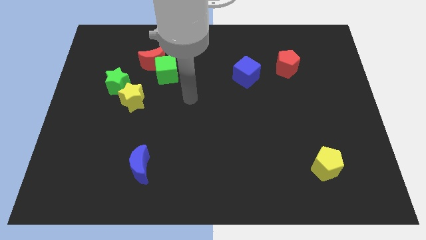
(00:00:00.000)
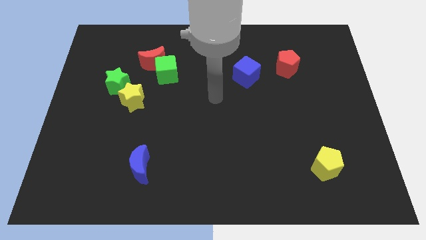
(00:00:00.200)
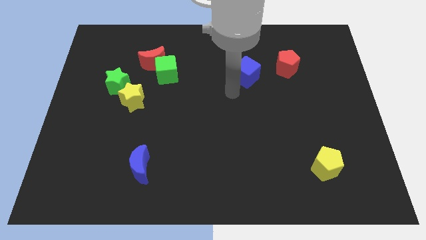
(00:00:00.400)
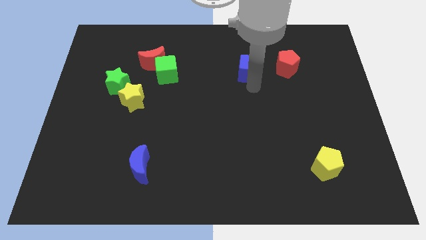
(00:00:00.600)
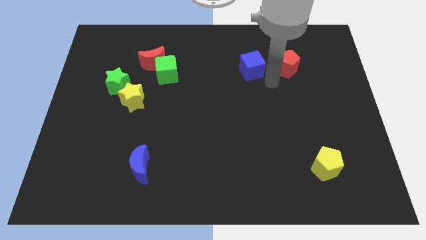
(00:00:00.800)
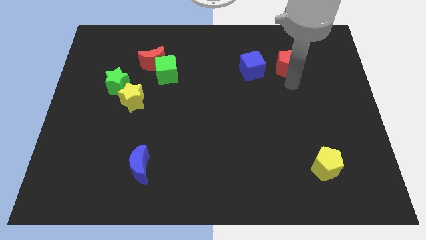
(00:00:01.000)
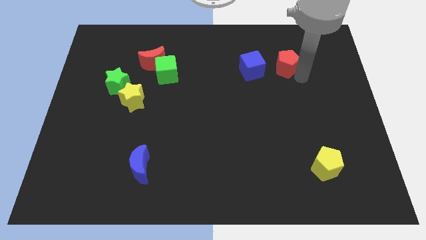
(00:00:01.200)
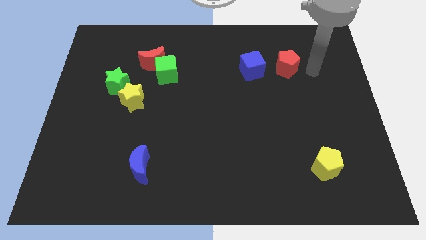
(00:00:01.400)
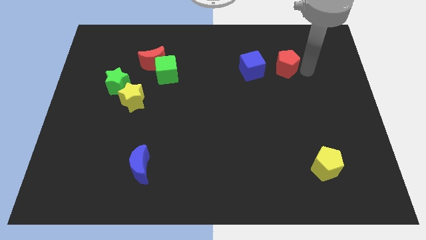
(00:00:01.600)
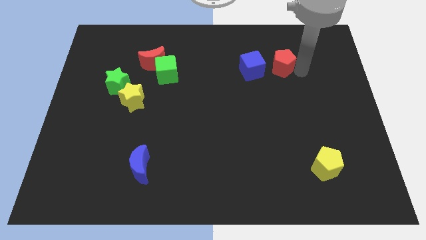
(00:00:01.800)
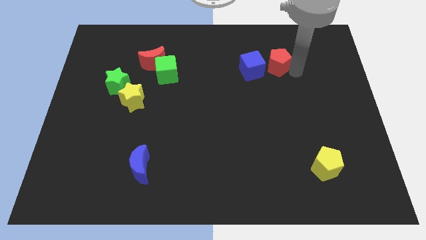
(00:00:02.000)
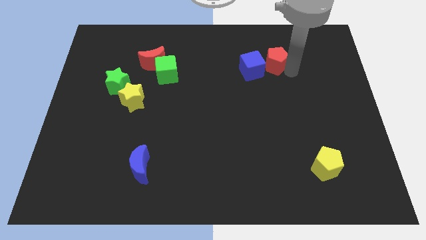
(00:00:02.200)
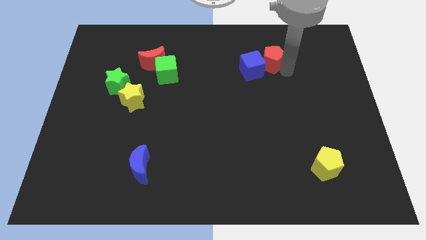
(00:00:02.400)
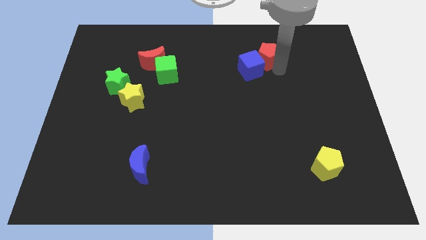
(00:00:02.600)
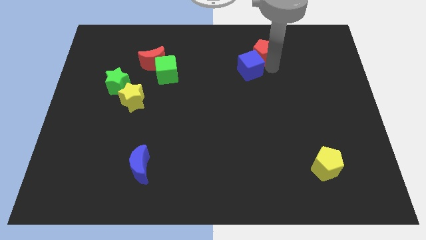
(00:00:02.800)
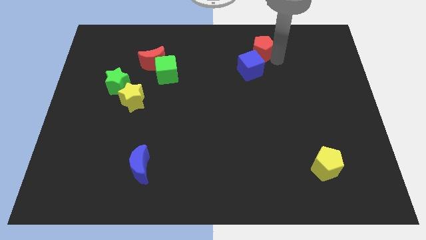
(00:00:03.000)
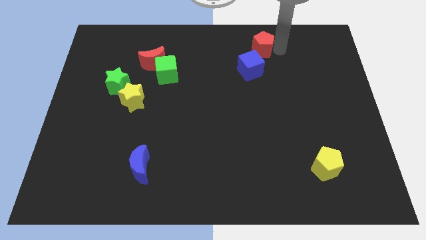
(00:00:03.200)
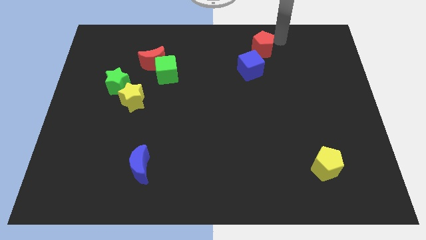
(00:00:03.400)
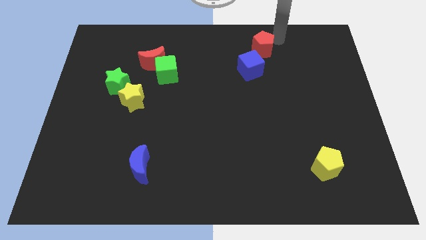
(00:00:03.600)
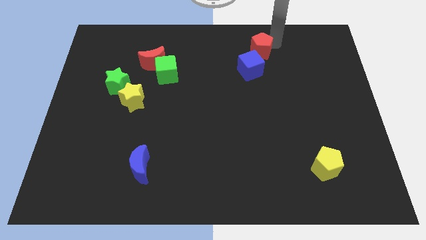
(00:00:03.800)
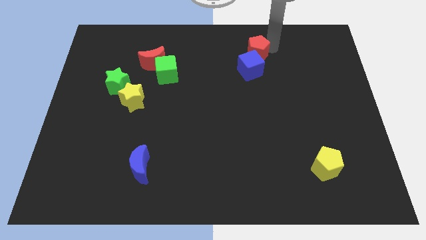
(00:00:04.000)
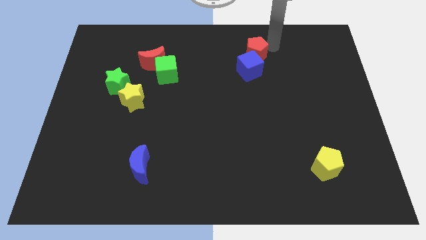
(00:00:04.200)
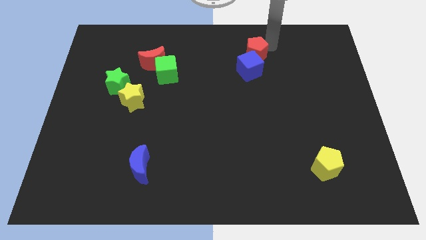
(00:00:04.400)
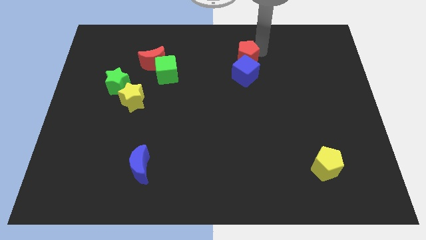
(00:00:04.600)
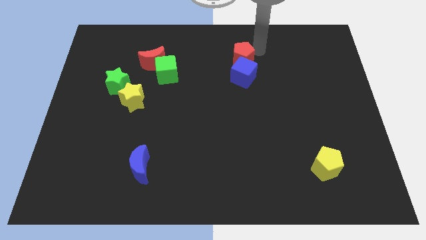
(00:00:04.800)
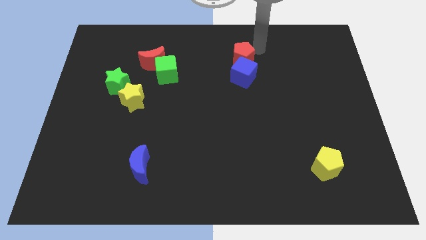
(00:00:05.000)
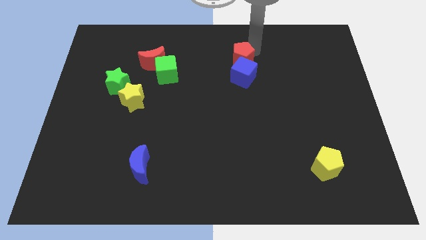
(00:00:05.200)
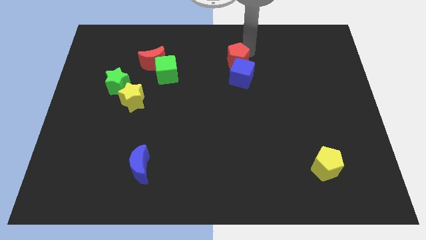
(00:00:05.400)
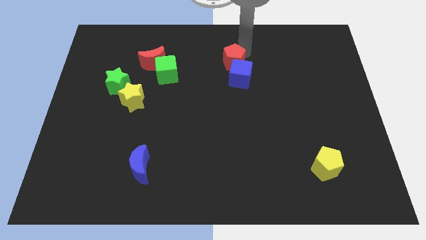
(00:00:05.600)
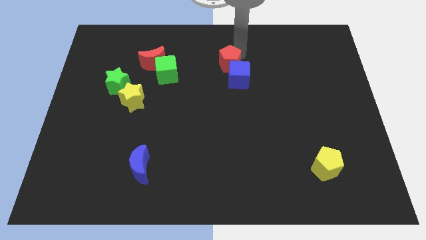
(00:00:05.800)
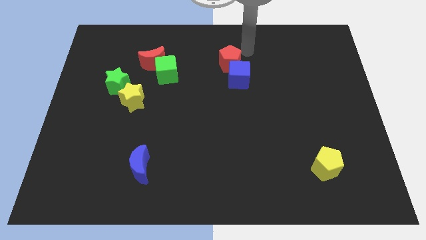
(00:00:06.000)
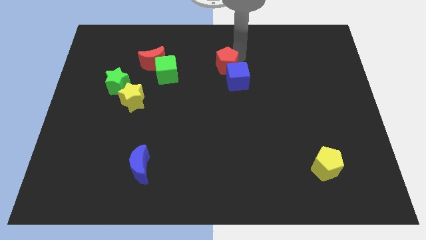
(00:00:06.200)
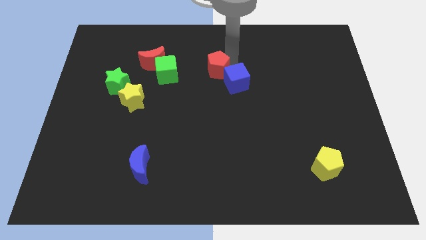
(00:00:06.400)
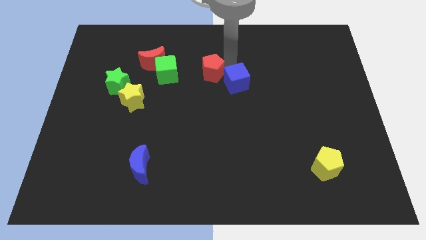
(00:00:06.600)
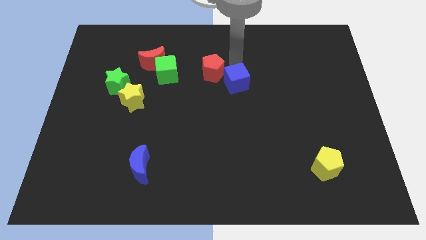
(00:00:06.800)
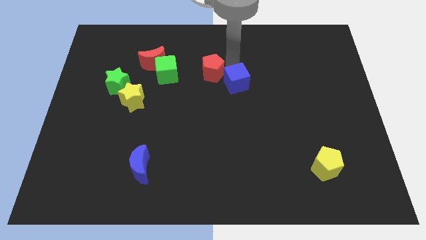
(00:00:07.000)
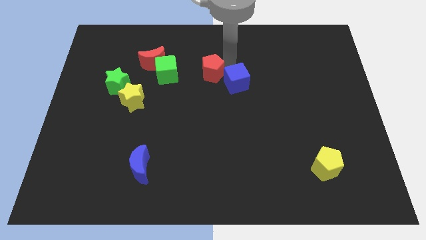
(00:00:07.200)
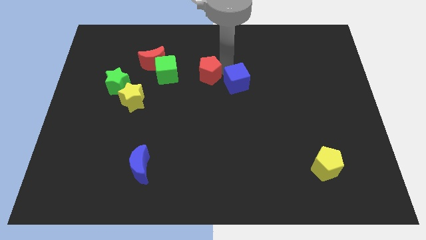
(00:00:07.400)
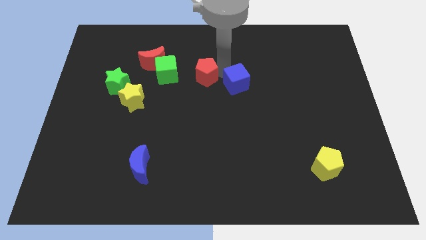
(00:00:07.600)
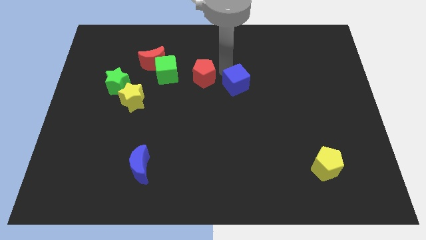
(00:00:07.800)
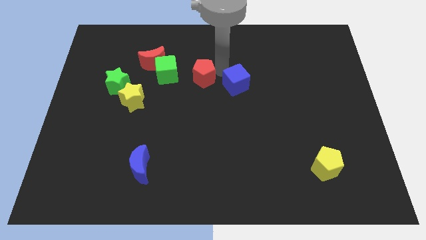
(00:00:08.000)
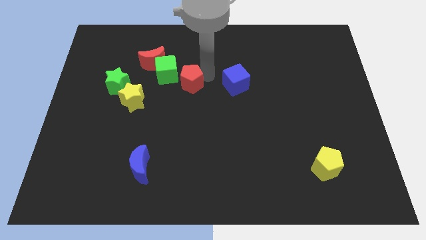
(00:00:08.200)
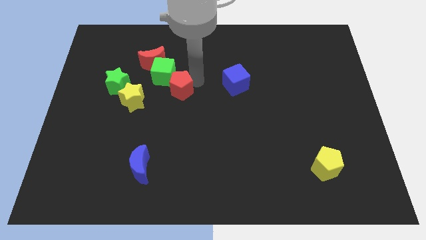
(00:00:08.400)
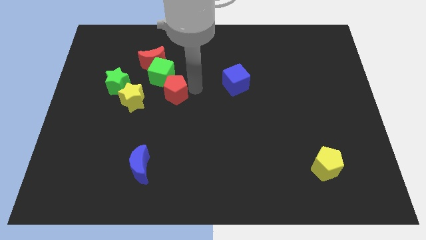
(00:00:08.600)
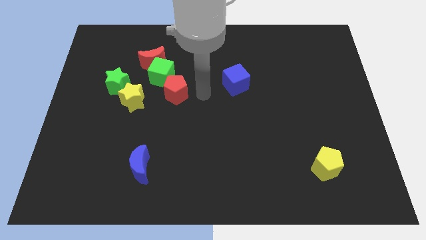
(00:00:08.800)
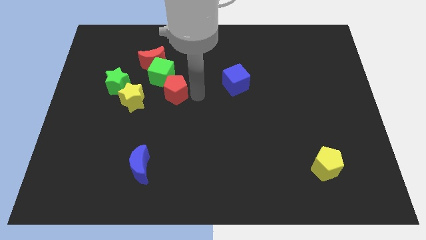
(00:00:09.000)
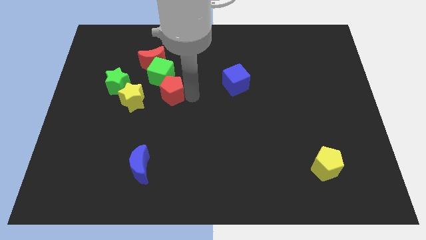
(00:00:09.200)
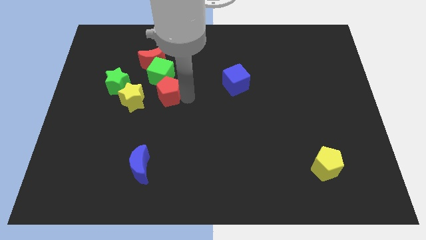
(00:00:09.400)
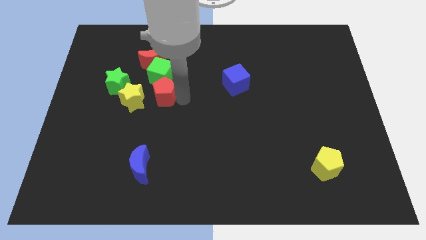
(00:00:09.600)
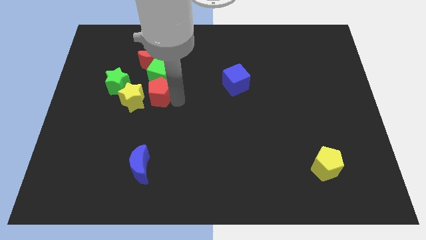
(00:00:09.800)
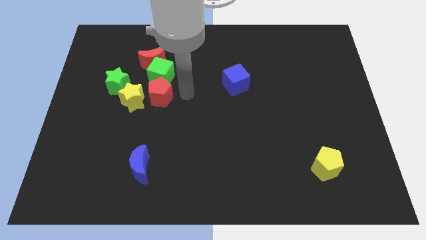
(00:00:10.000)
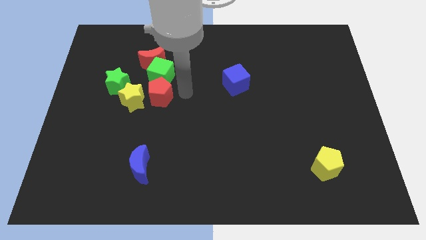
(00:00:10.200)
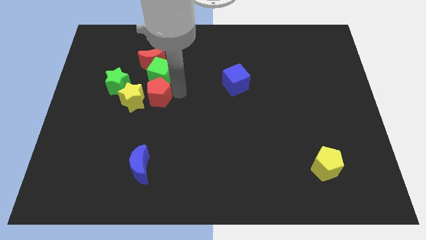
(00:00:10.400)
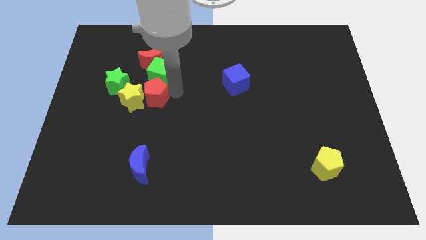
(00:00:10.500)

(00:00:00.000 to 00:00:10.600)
slide the red pentagon towards the yellow star

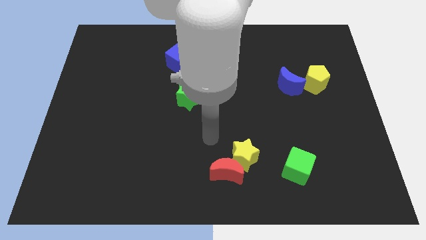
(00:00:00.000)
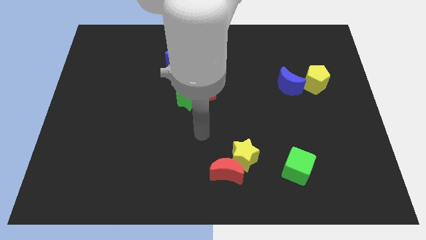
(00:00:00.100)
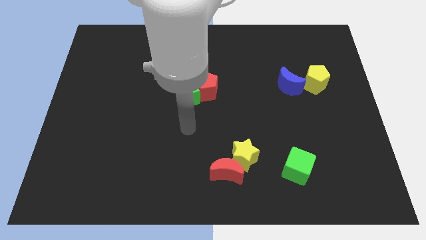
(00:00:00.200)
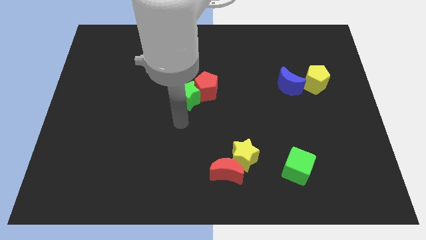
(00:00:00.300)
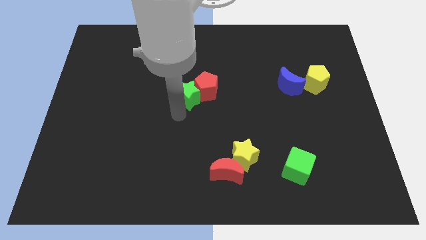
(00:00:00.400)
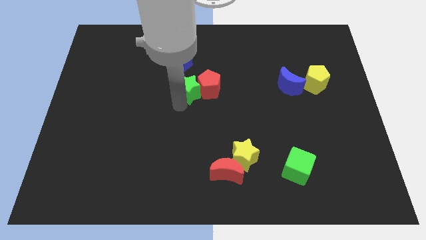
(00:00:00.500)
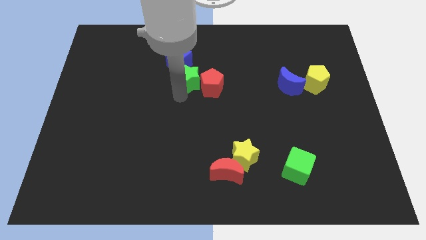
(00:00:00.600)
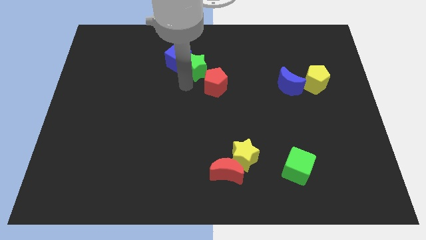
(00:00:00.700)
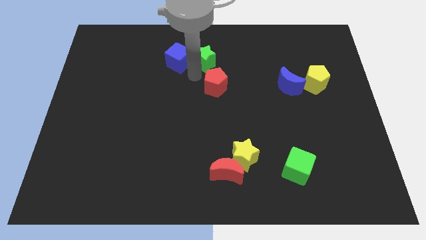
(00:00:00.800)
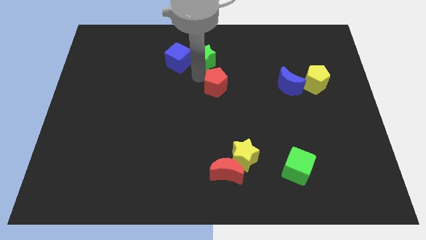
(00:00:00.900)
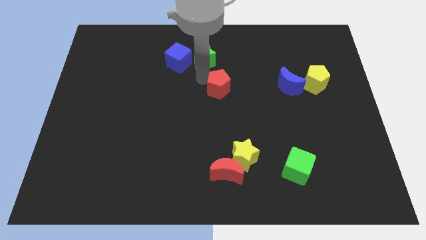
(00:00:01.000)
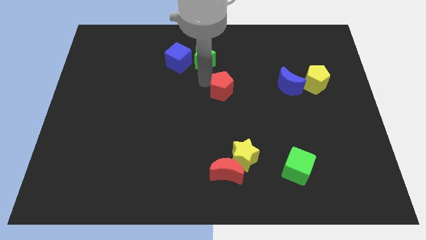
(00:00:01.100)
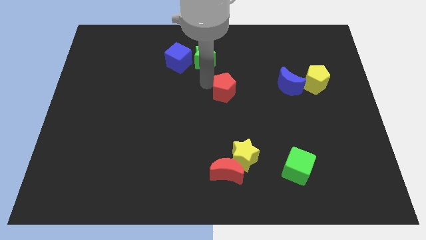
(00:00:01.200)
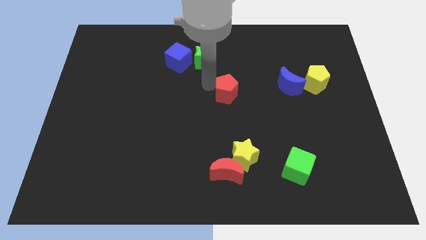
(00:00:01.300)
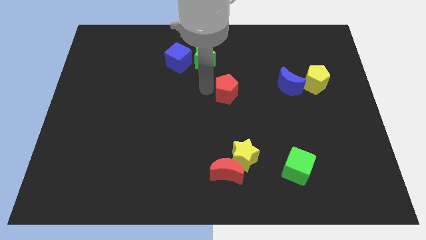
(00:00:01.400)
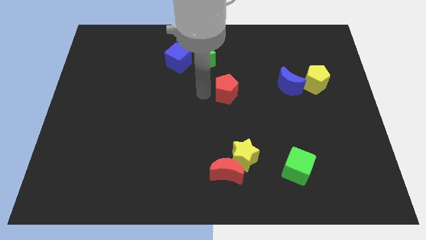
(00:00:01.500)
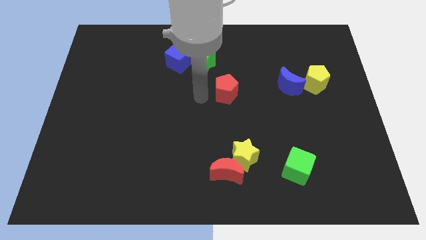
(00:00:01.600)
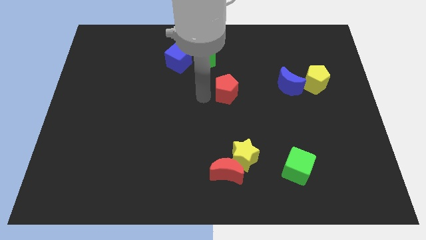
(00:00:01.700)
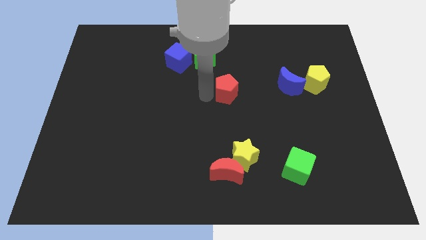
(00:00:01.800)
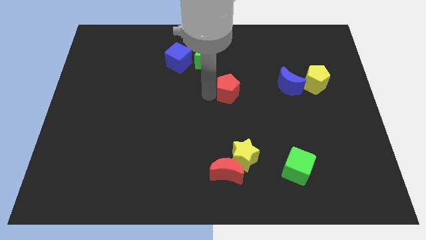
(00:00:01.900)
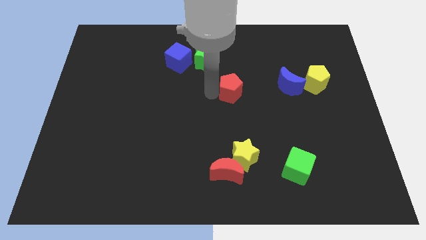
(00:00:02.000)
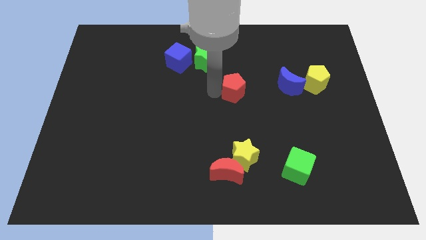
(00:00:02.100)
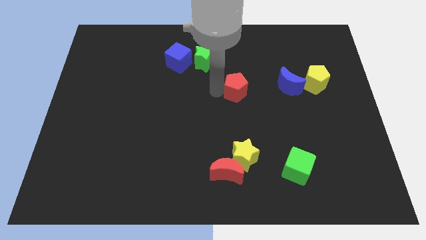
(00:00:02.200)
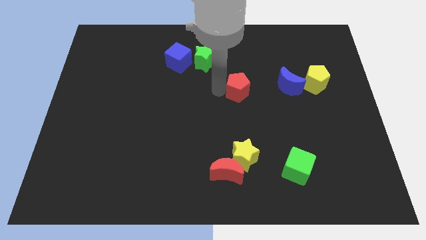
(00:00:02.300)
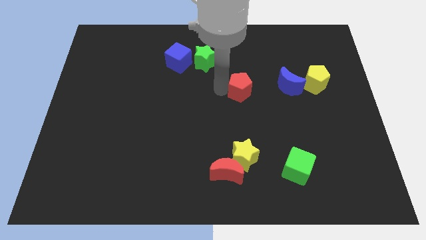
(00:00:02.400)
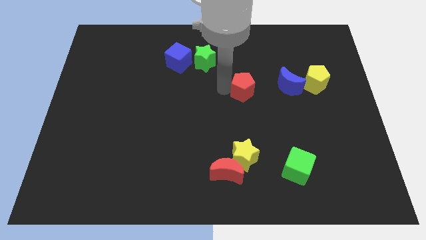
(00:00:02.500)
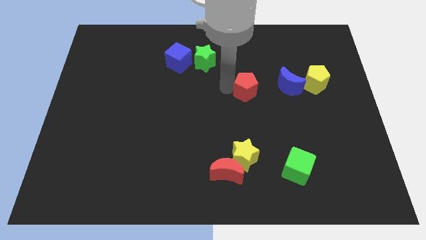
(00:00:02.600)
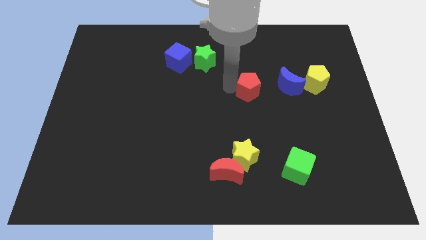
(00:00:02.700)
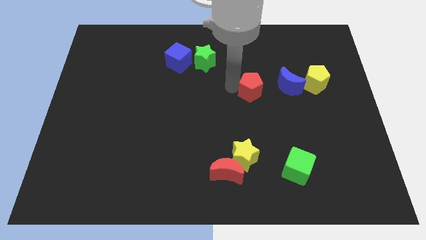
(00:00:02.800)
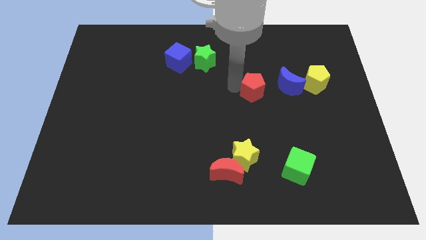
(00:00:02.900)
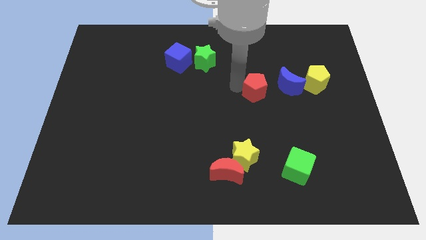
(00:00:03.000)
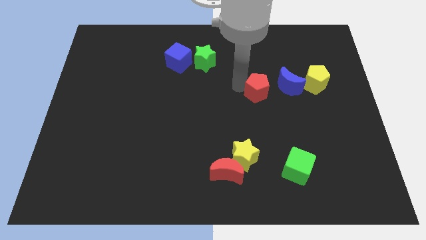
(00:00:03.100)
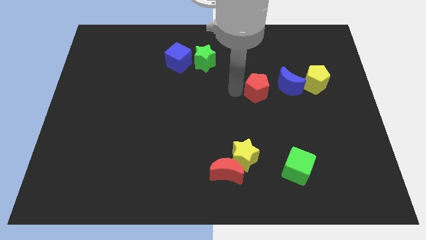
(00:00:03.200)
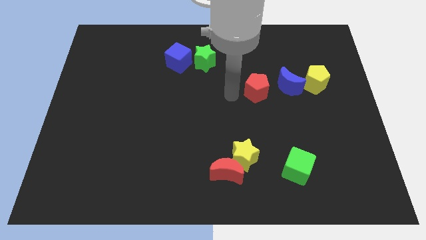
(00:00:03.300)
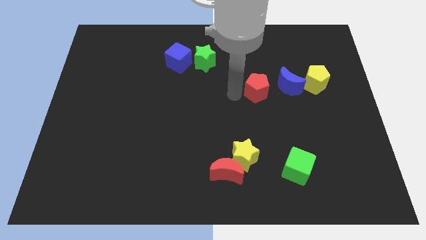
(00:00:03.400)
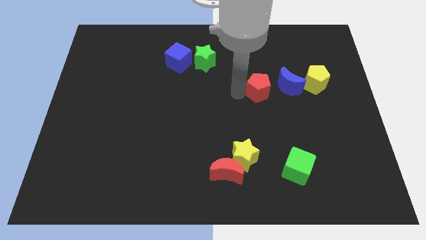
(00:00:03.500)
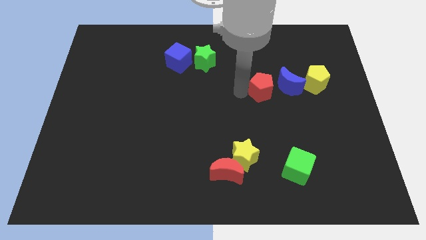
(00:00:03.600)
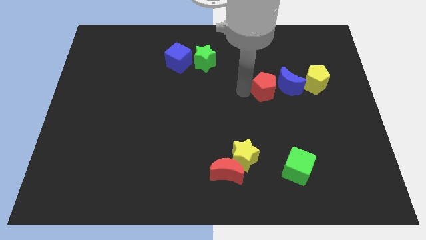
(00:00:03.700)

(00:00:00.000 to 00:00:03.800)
push the red pentagon towards the blue moon
